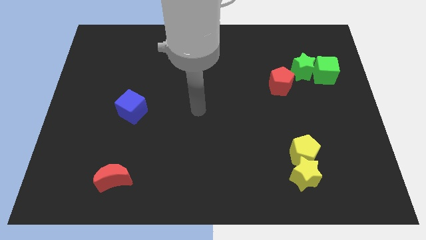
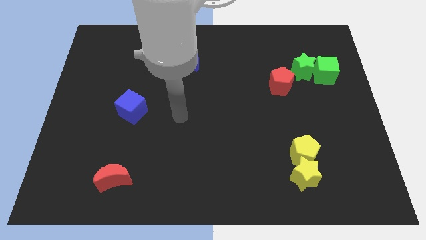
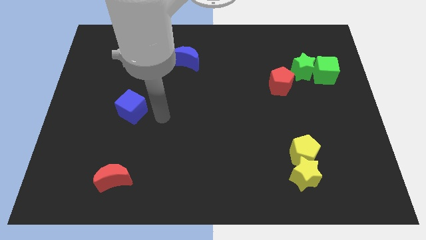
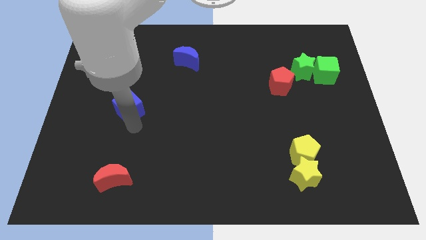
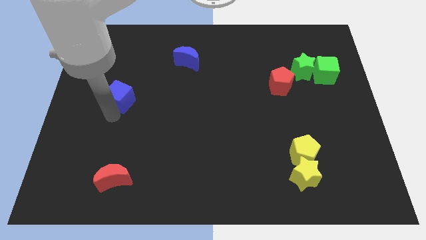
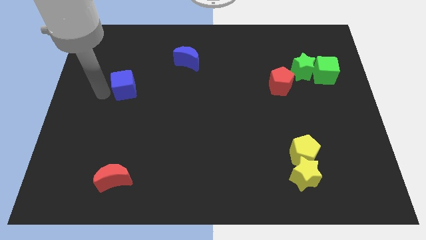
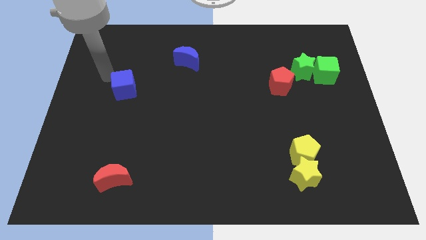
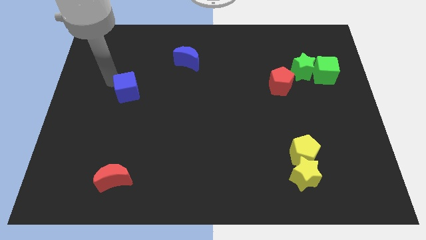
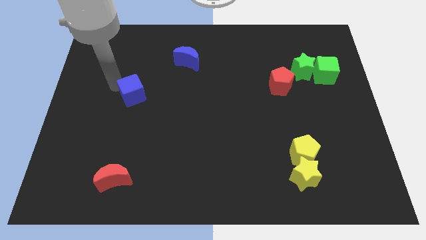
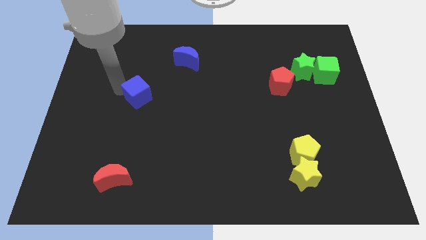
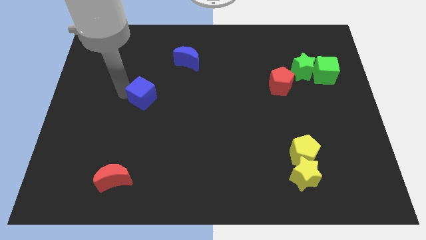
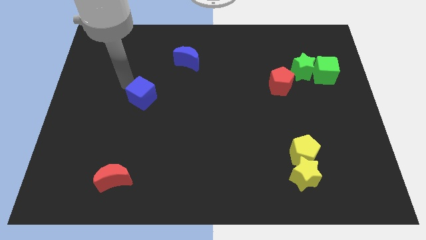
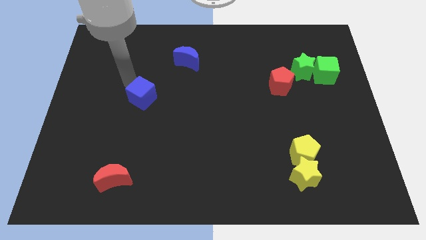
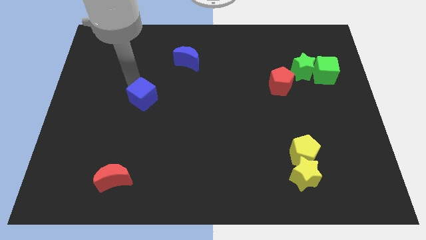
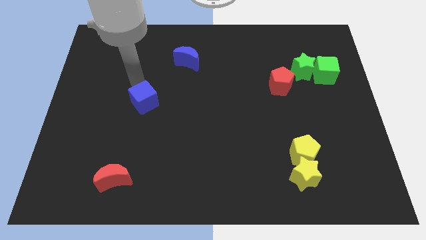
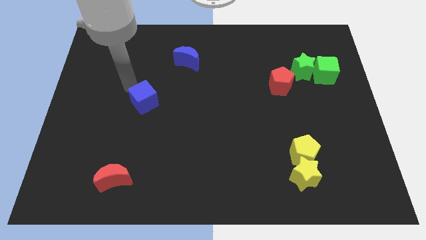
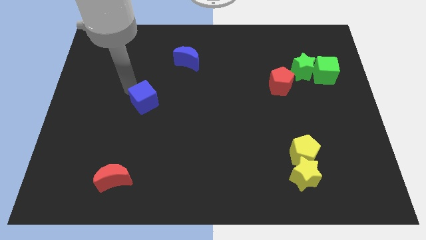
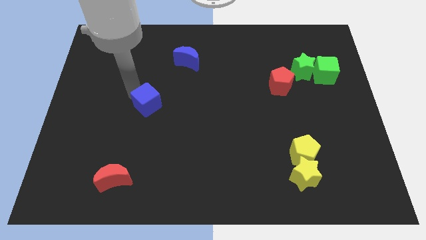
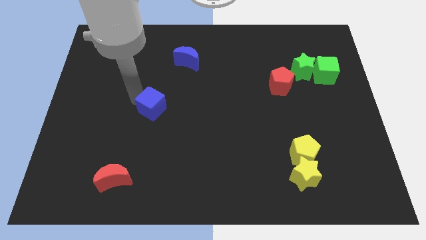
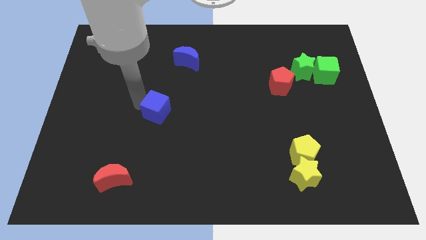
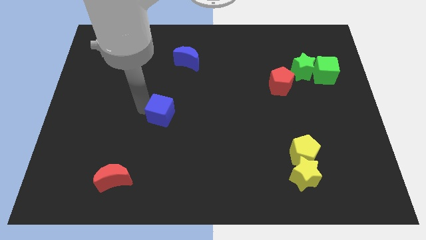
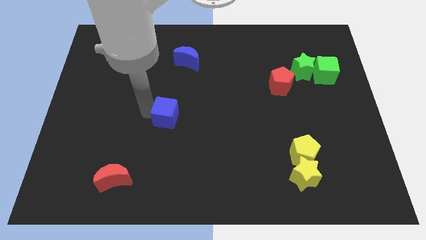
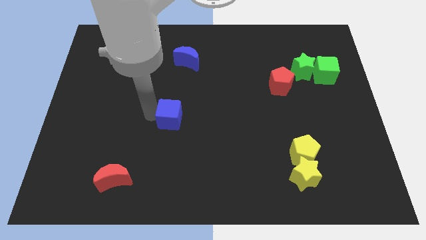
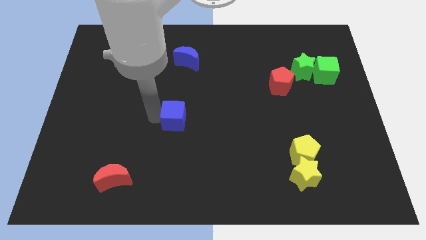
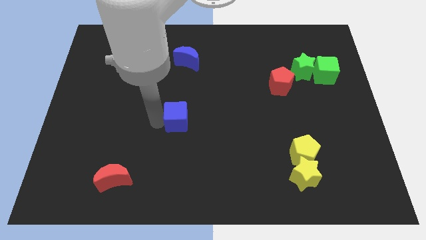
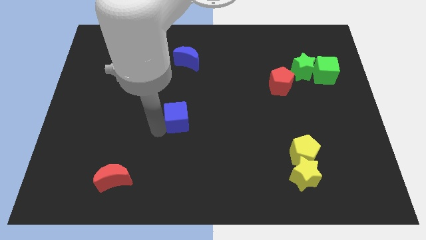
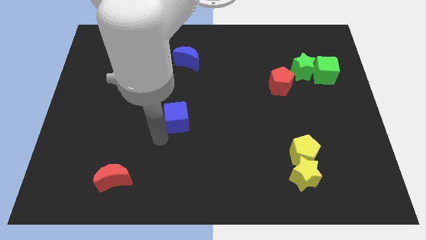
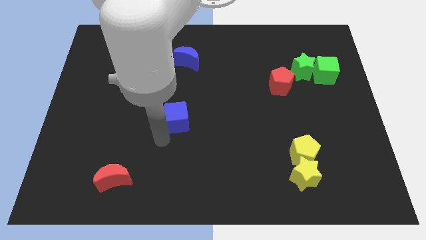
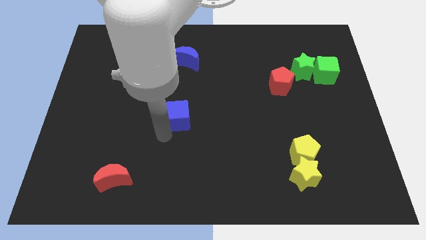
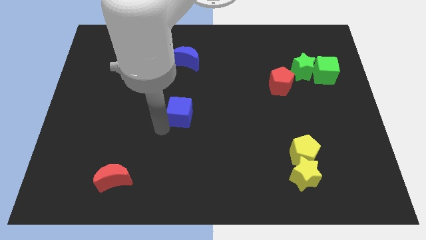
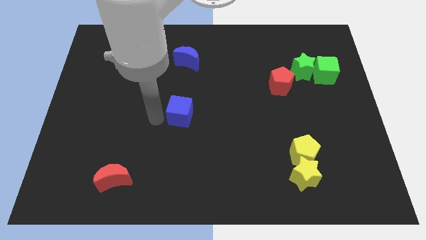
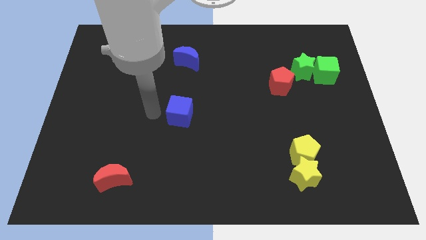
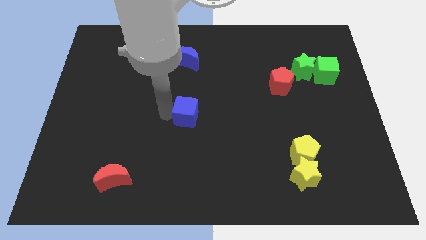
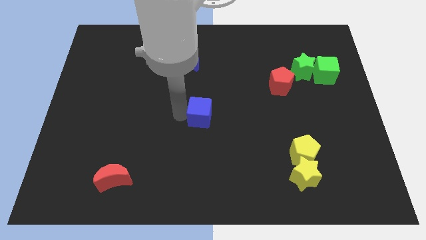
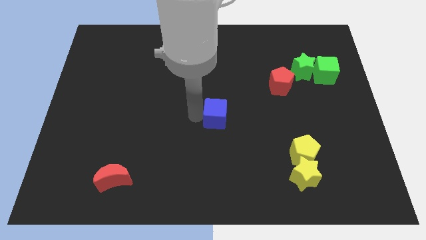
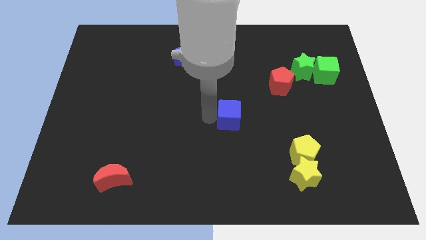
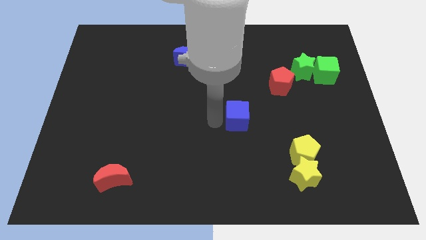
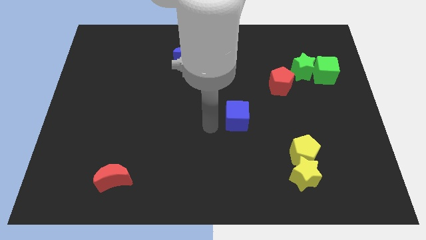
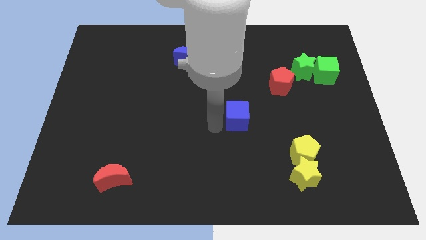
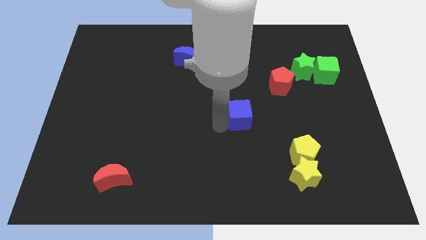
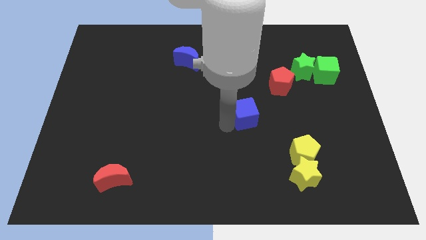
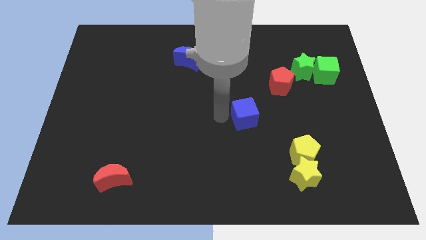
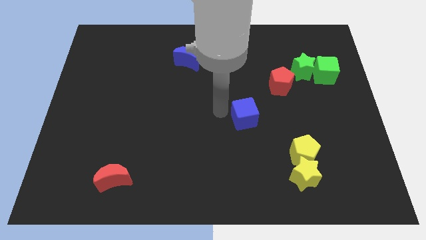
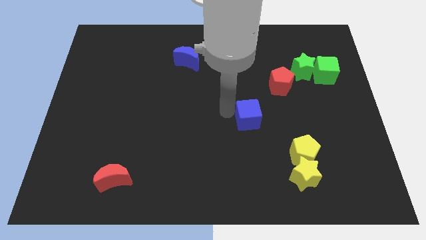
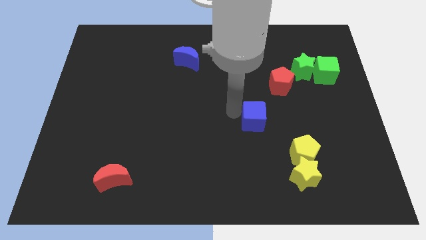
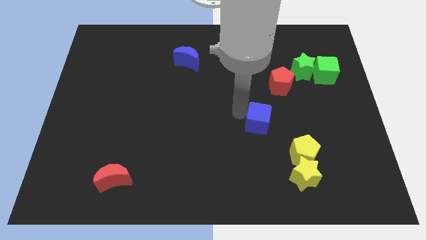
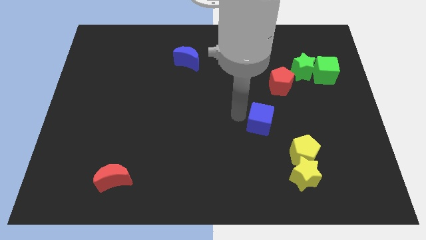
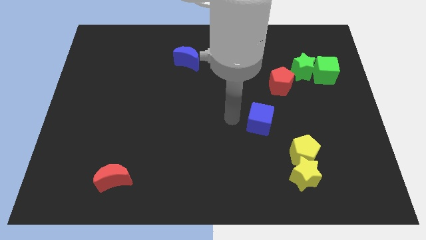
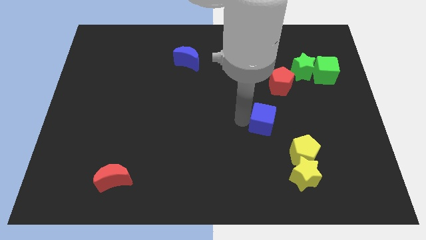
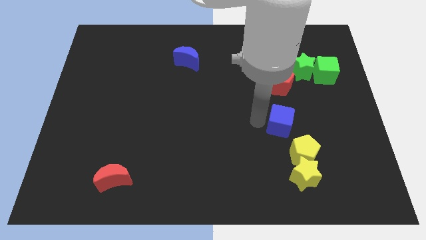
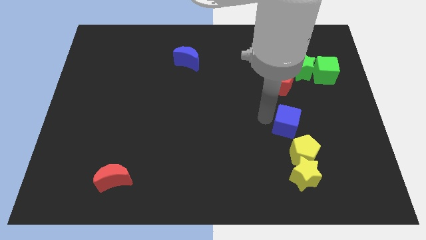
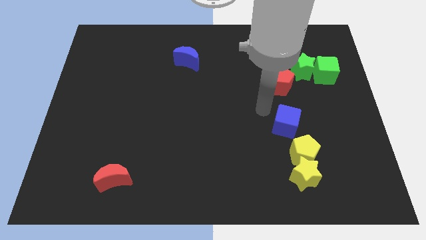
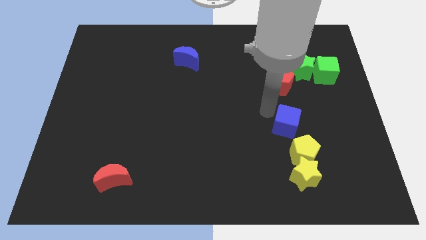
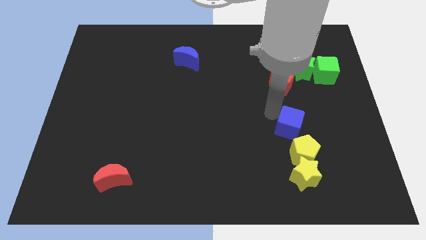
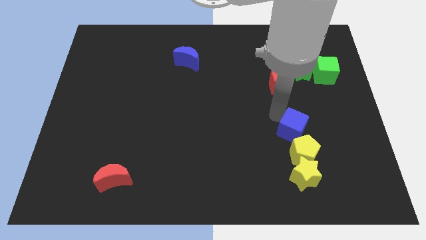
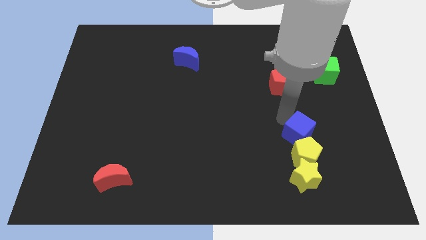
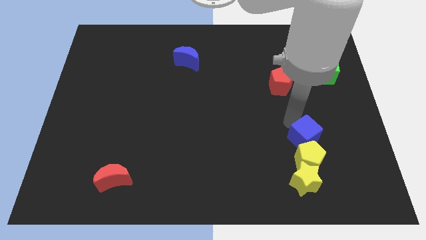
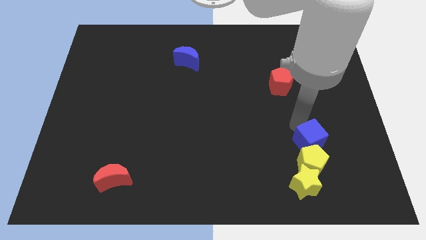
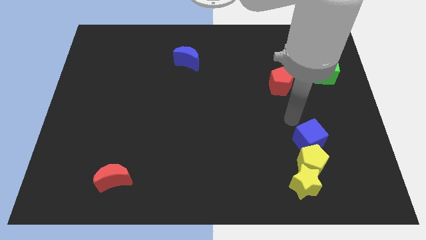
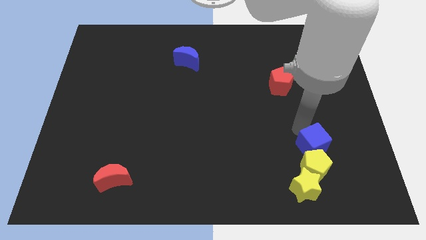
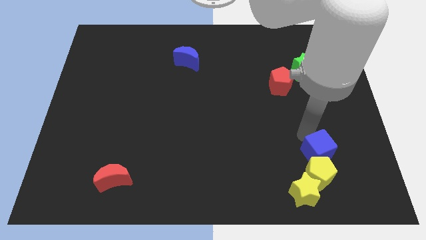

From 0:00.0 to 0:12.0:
put the blue cube diagonally up and to the right of the yellow star

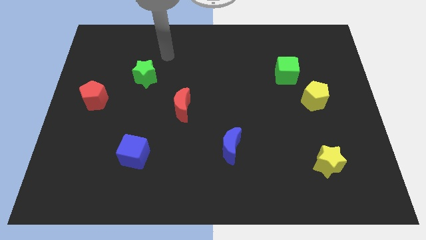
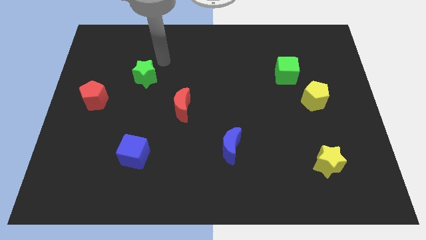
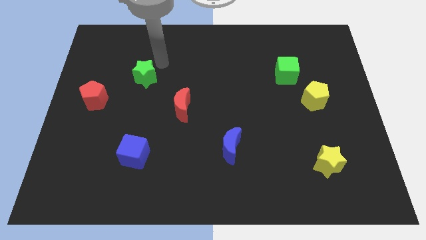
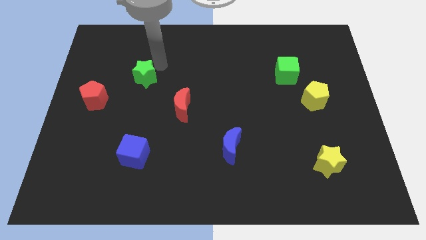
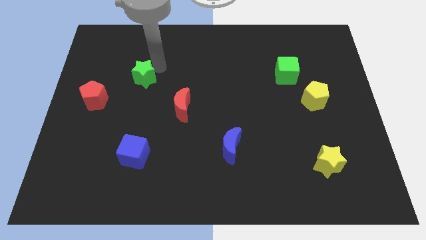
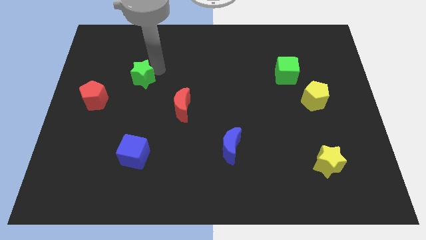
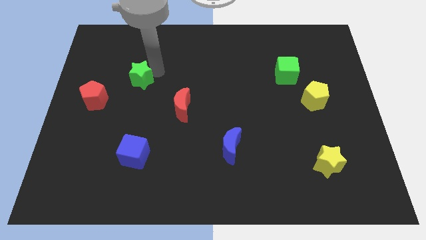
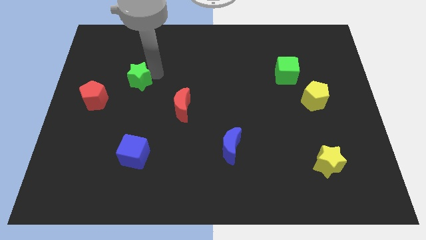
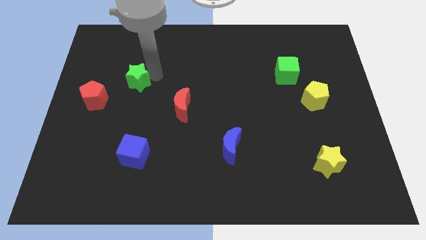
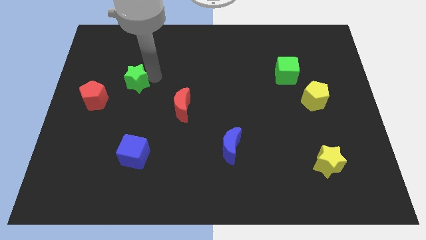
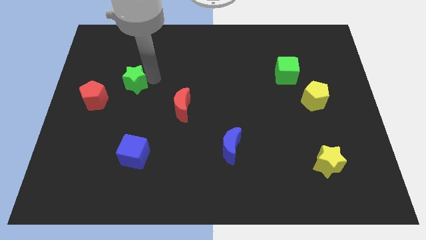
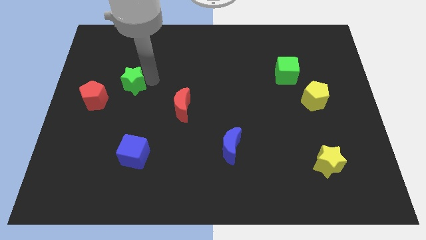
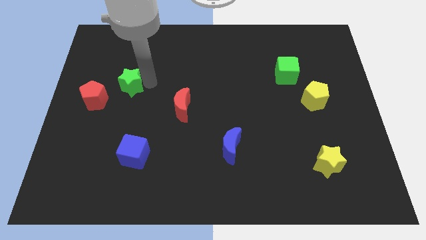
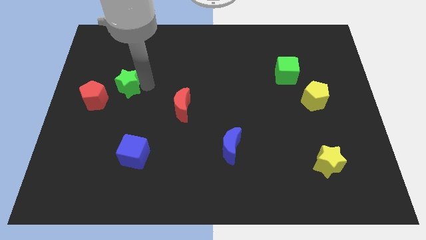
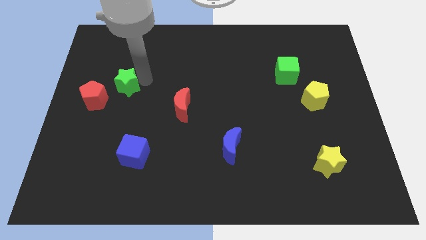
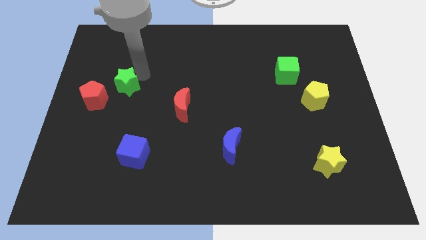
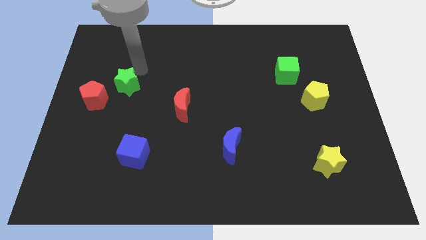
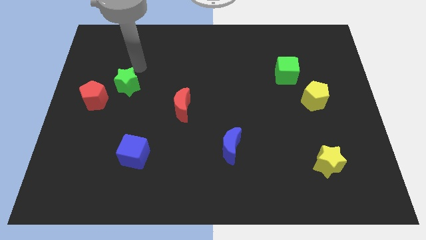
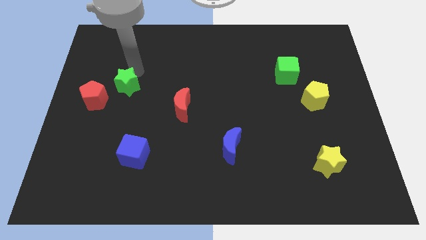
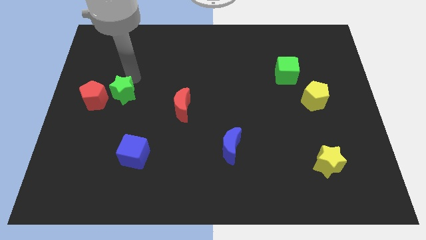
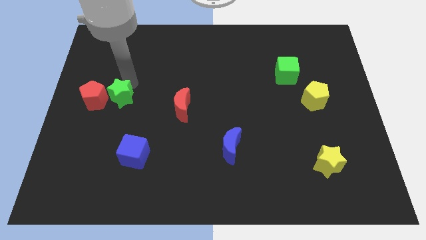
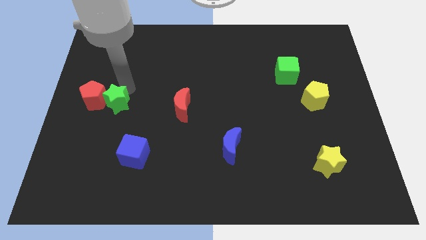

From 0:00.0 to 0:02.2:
put the green star to the bottom right side of the red pentagon
